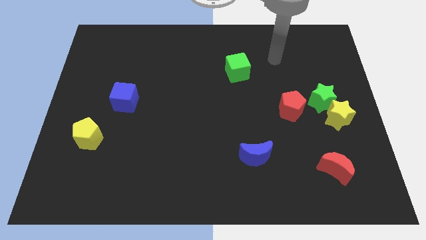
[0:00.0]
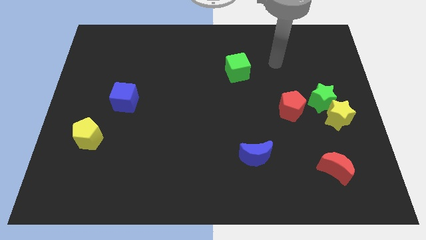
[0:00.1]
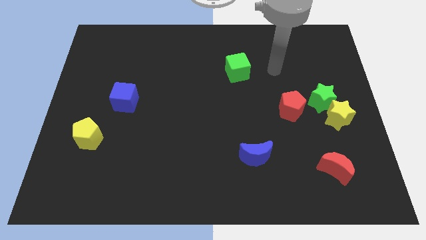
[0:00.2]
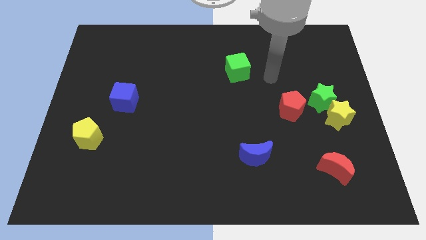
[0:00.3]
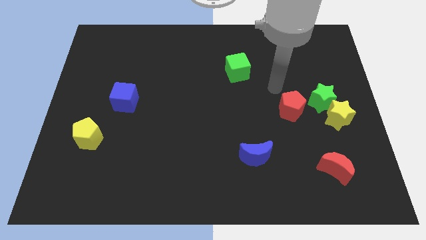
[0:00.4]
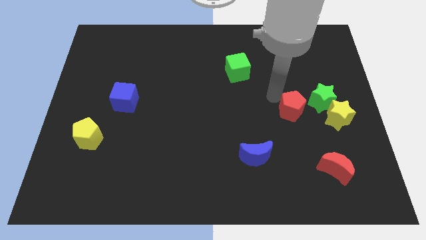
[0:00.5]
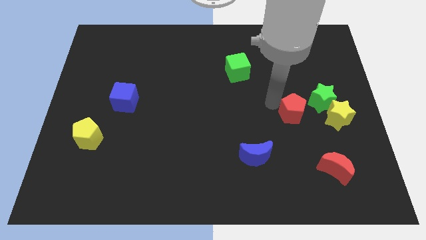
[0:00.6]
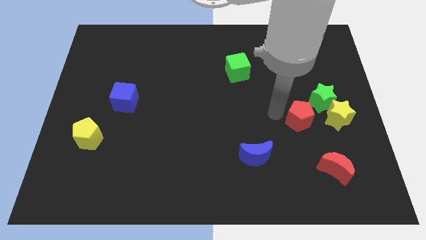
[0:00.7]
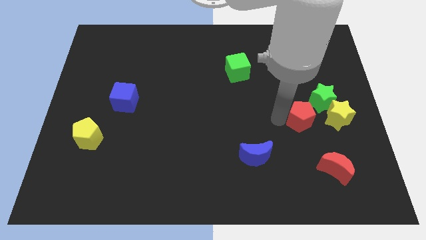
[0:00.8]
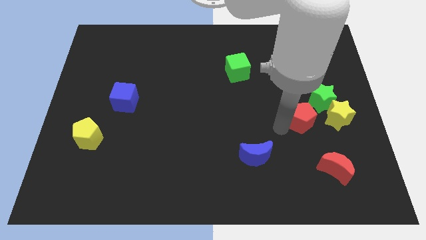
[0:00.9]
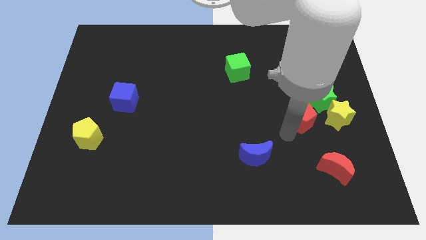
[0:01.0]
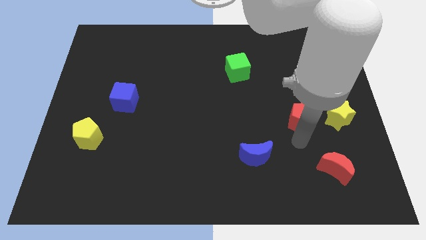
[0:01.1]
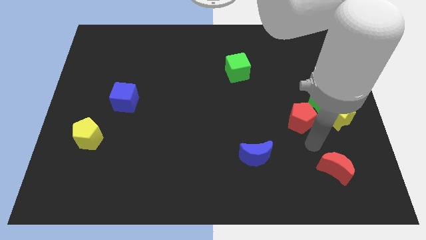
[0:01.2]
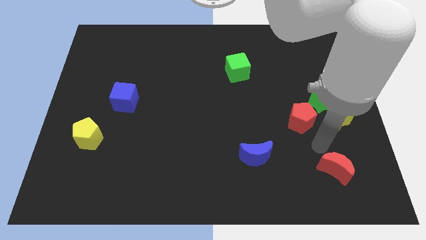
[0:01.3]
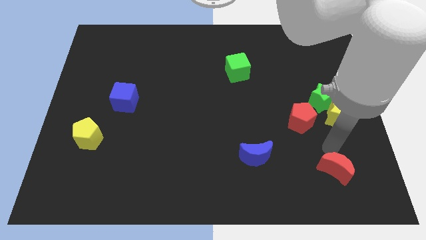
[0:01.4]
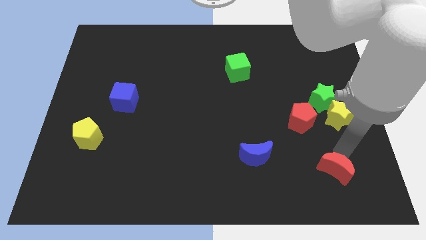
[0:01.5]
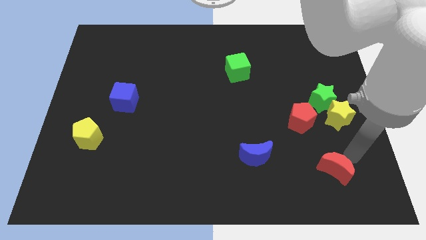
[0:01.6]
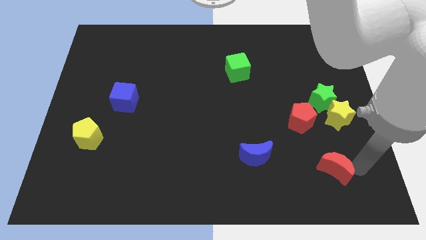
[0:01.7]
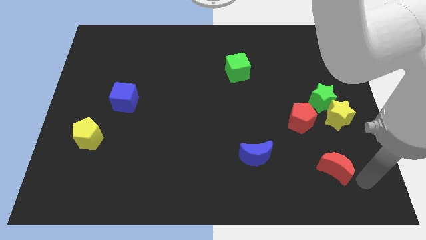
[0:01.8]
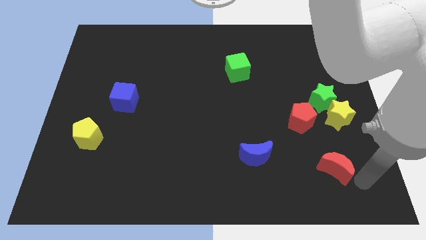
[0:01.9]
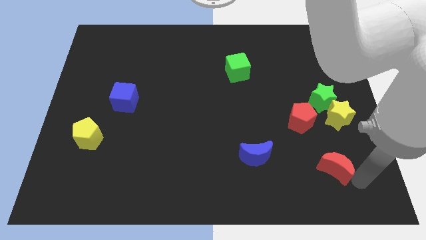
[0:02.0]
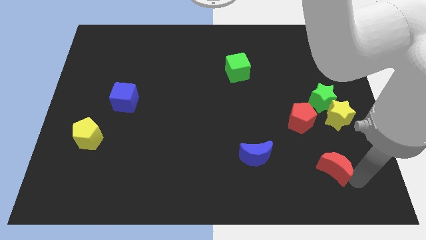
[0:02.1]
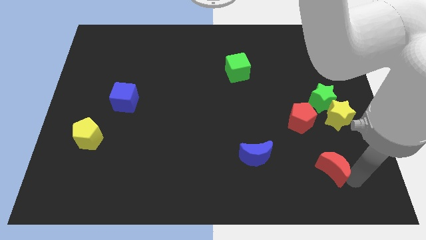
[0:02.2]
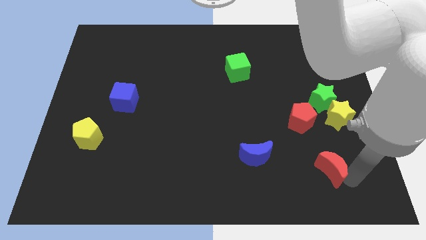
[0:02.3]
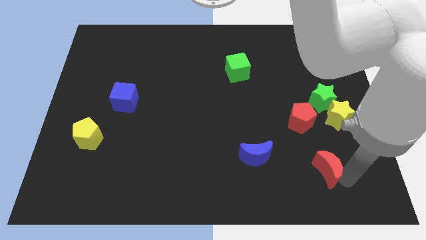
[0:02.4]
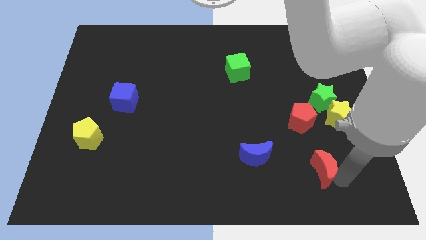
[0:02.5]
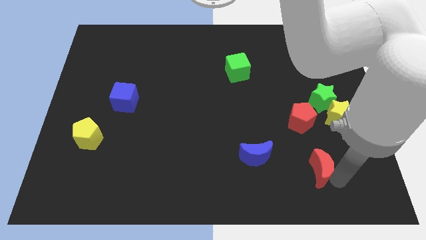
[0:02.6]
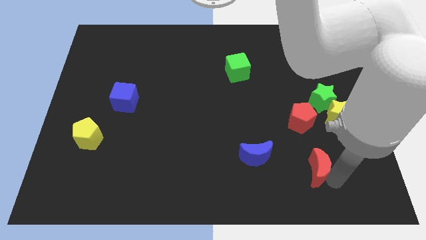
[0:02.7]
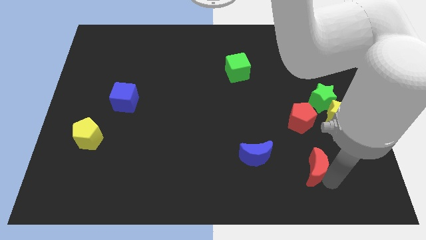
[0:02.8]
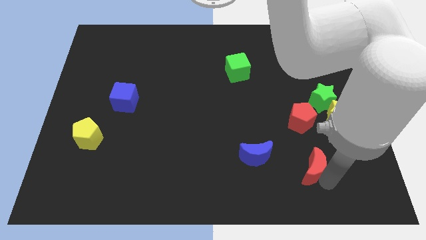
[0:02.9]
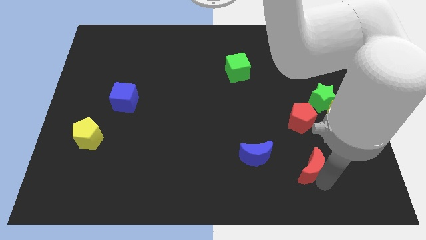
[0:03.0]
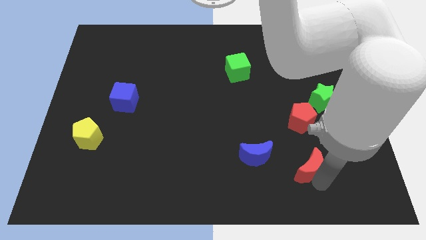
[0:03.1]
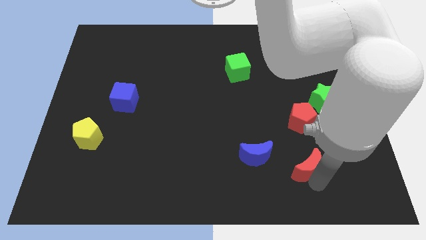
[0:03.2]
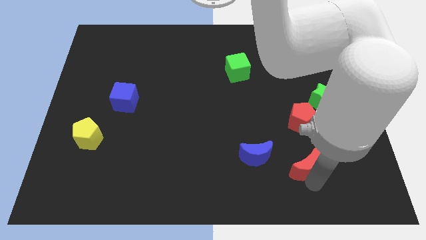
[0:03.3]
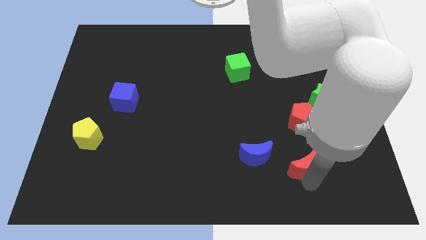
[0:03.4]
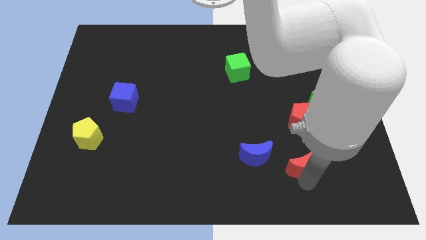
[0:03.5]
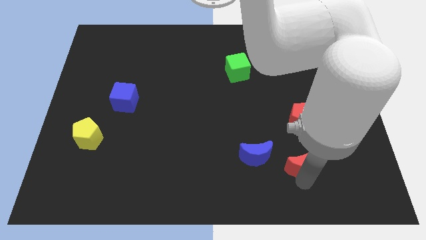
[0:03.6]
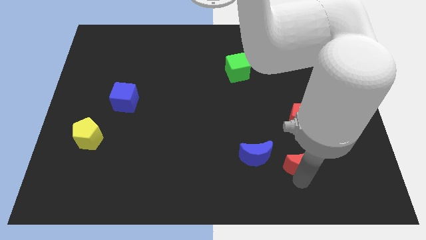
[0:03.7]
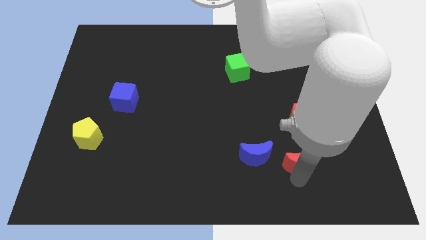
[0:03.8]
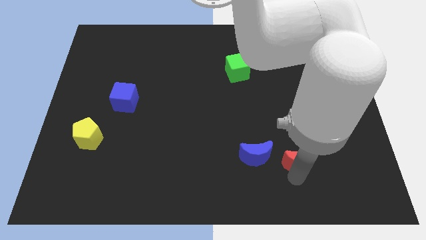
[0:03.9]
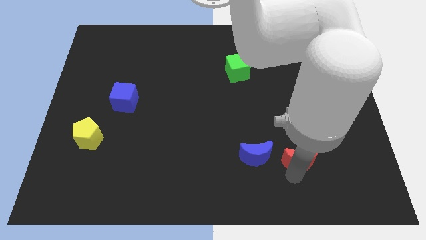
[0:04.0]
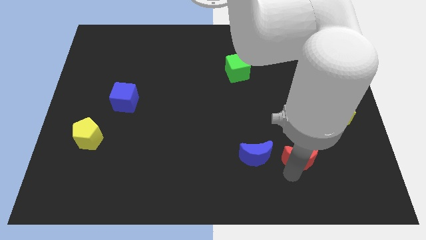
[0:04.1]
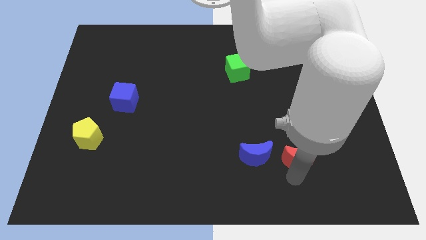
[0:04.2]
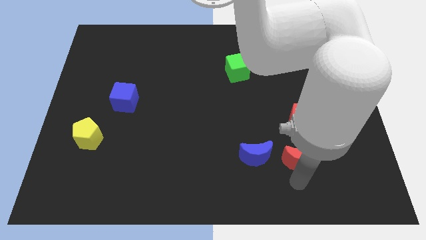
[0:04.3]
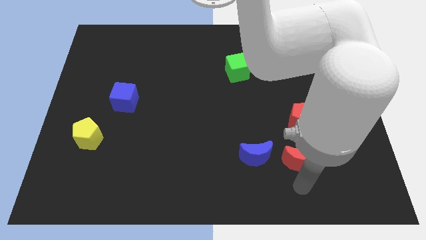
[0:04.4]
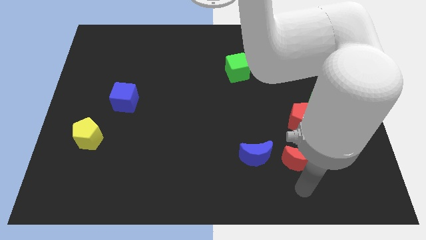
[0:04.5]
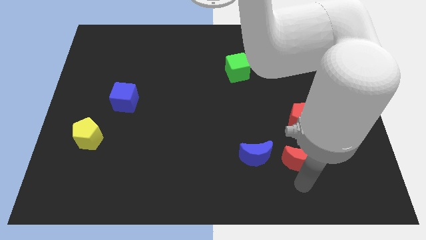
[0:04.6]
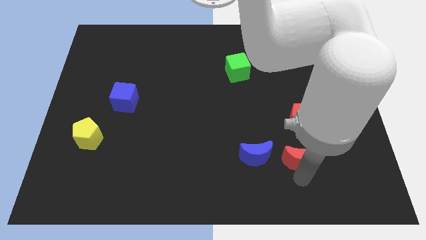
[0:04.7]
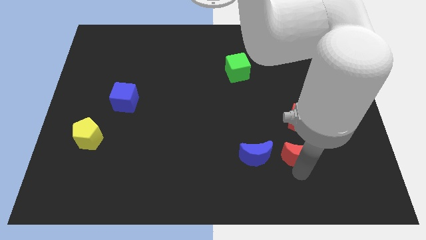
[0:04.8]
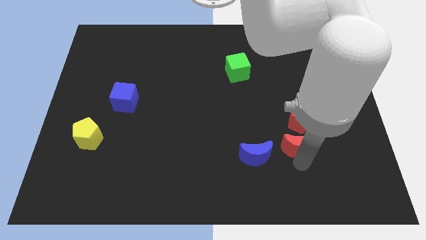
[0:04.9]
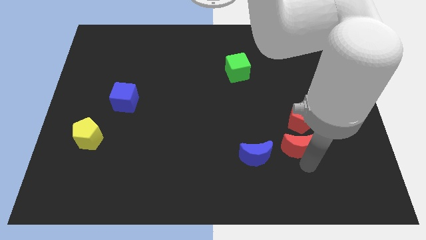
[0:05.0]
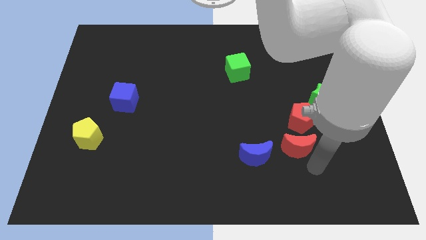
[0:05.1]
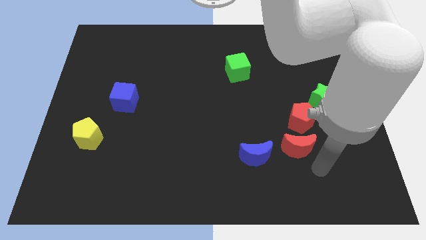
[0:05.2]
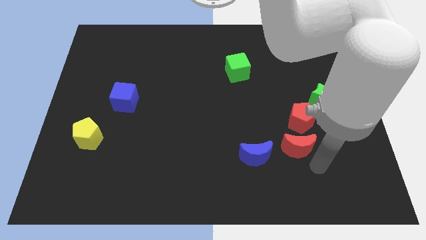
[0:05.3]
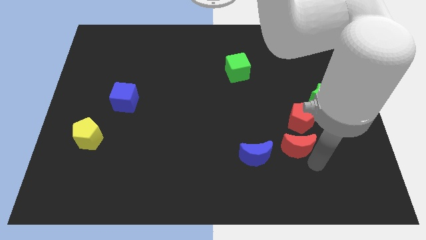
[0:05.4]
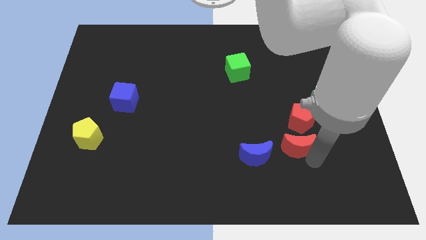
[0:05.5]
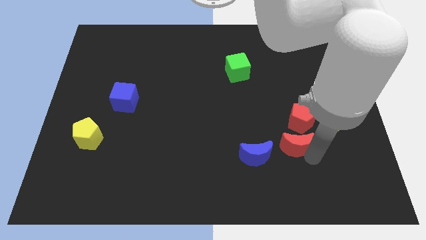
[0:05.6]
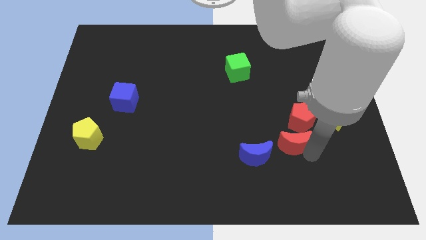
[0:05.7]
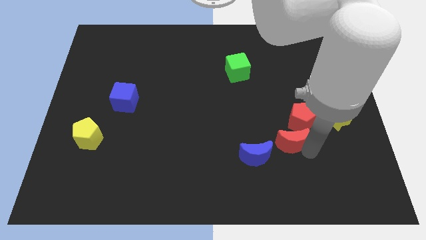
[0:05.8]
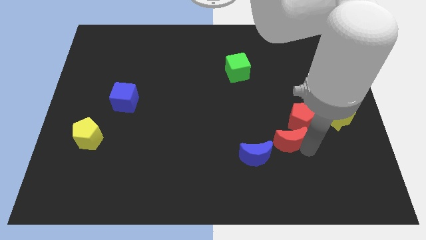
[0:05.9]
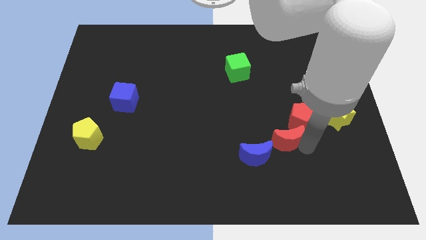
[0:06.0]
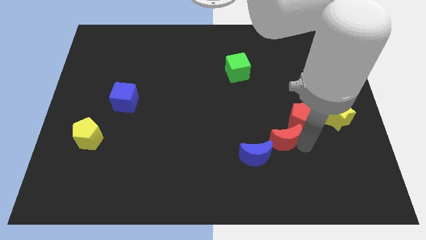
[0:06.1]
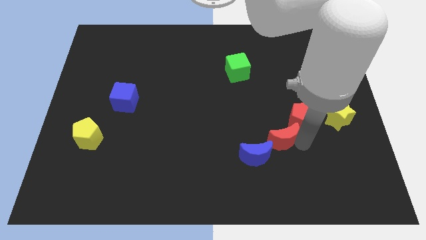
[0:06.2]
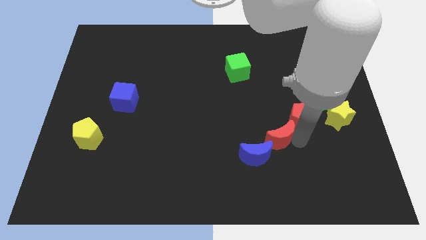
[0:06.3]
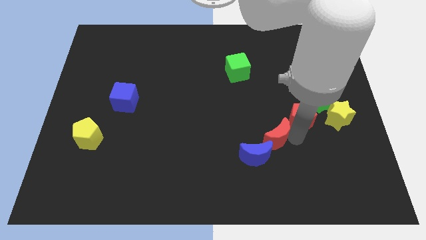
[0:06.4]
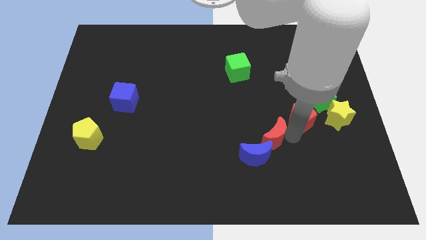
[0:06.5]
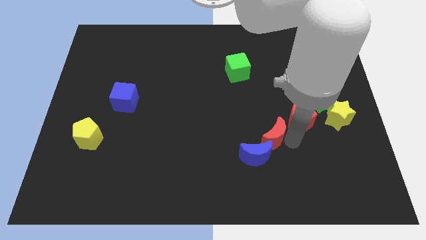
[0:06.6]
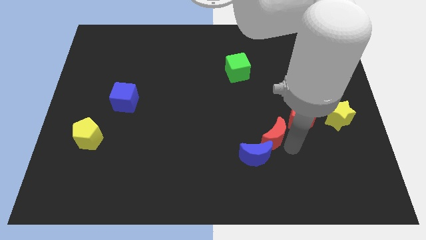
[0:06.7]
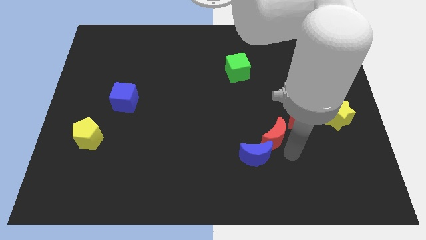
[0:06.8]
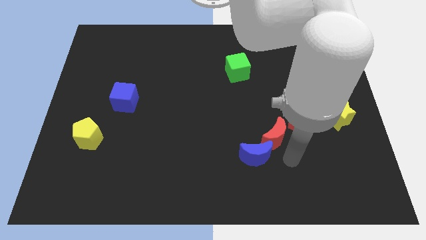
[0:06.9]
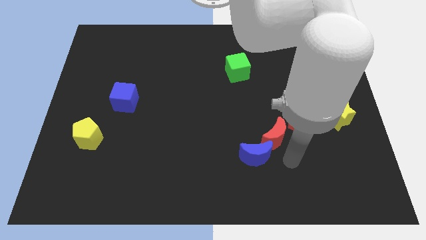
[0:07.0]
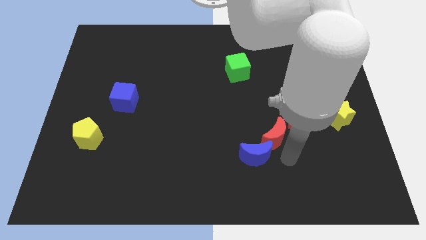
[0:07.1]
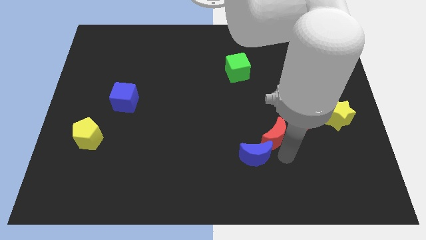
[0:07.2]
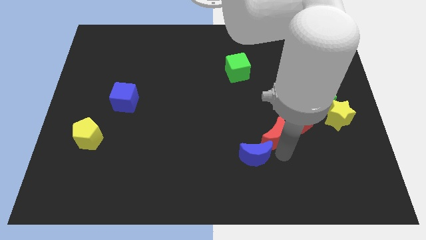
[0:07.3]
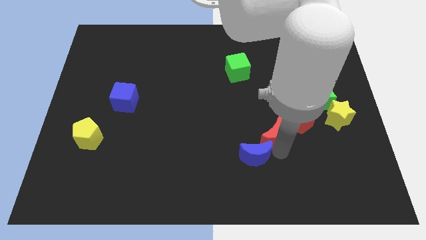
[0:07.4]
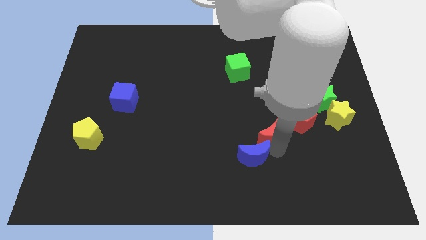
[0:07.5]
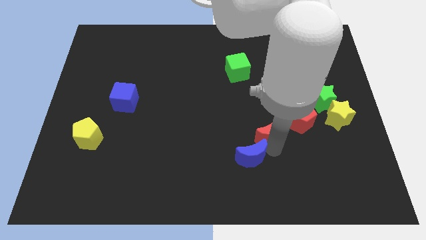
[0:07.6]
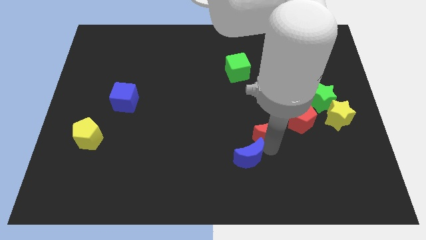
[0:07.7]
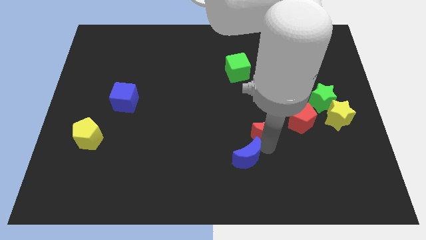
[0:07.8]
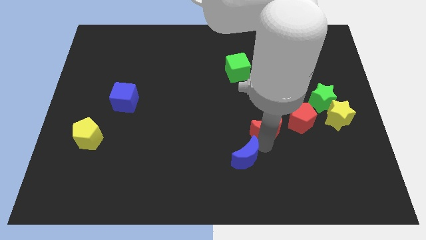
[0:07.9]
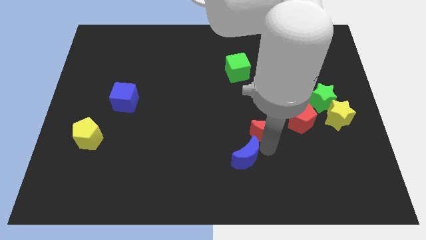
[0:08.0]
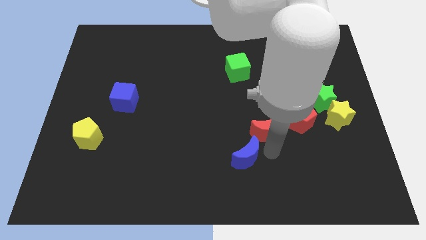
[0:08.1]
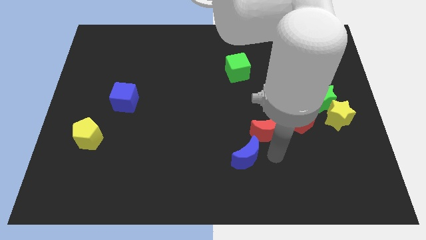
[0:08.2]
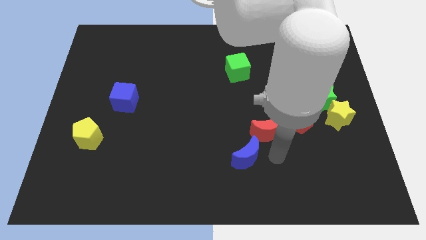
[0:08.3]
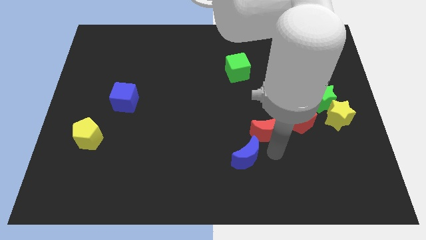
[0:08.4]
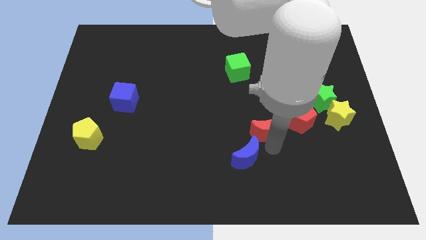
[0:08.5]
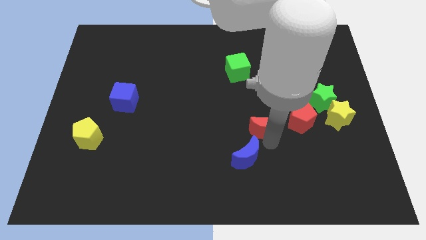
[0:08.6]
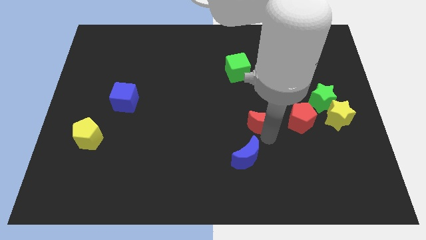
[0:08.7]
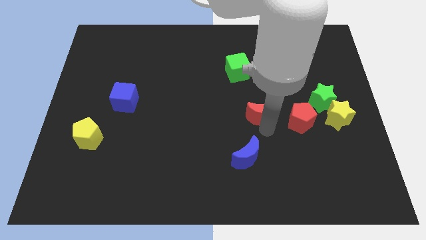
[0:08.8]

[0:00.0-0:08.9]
push the red moon up and to the left diagonally
